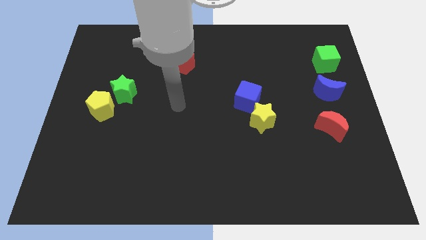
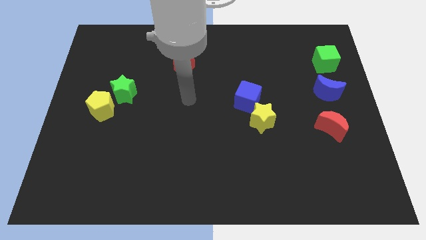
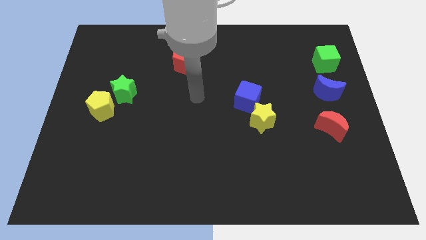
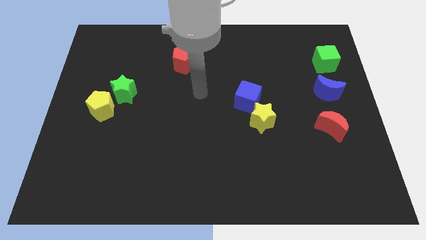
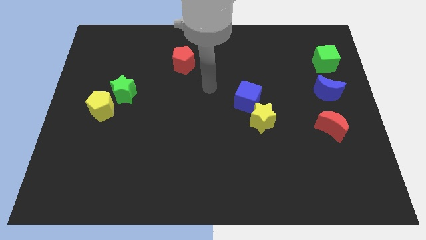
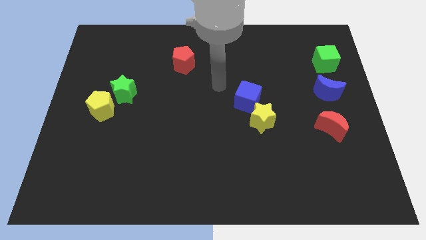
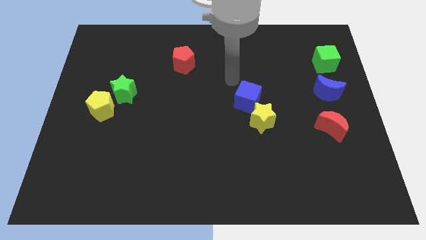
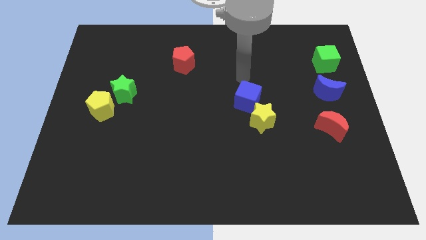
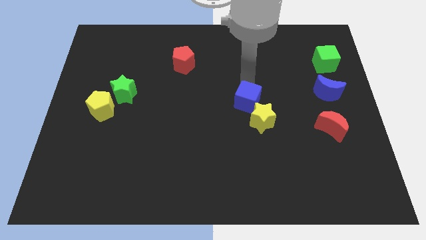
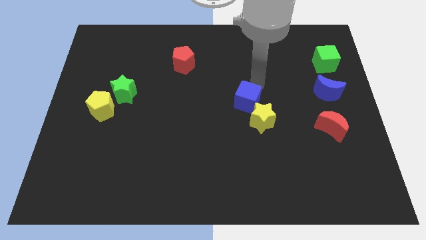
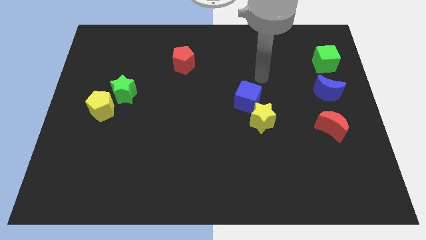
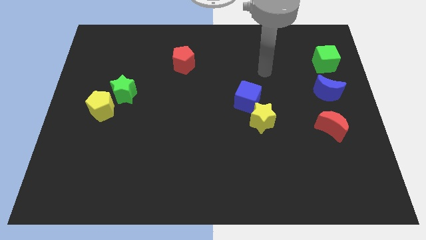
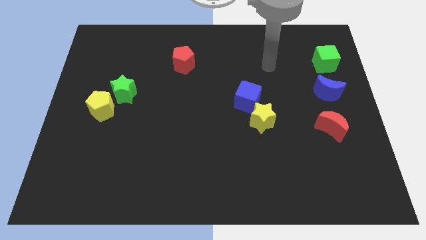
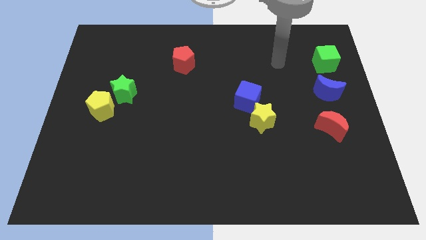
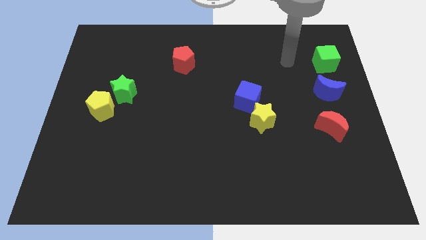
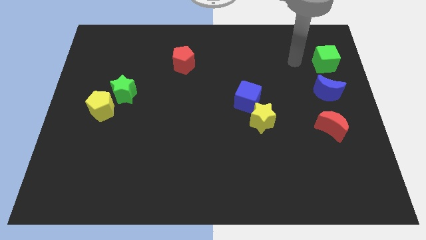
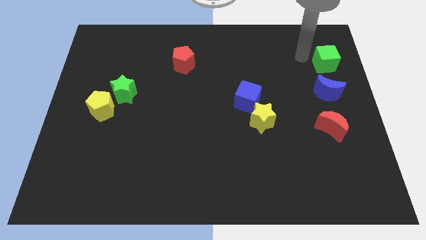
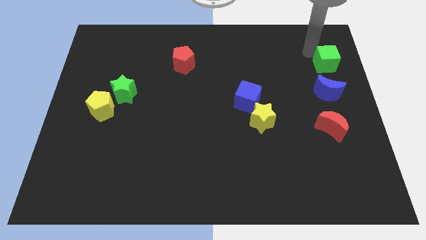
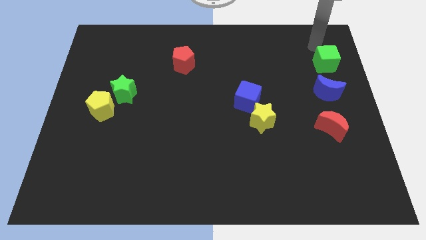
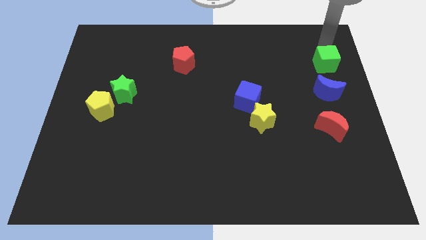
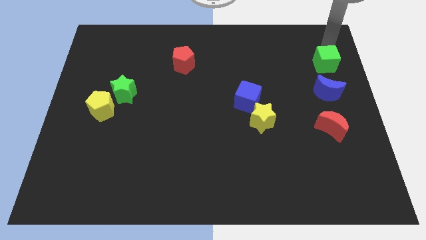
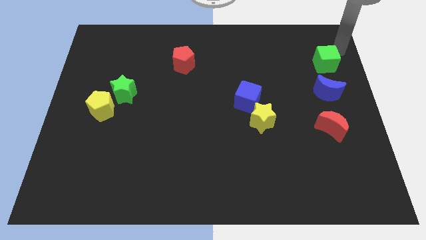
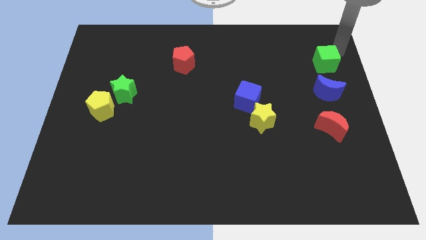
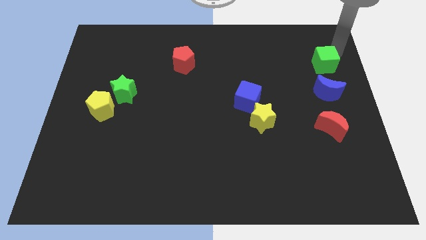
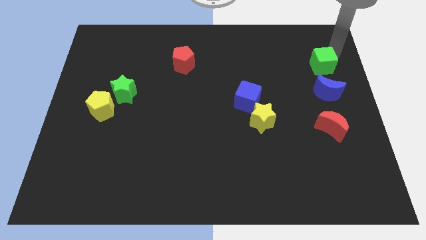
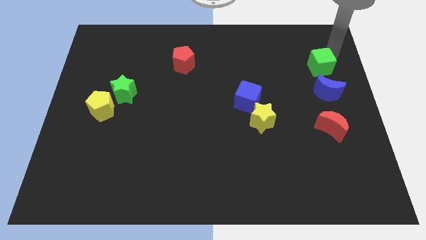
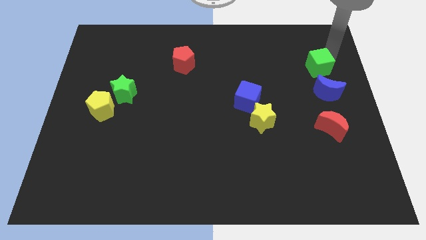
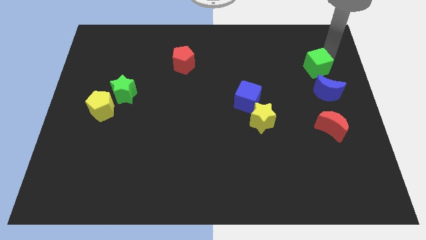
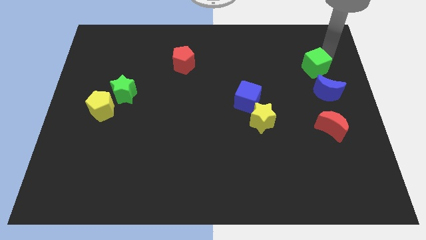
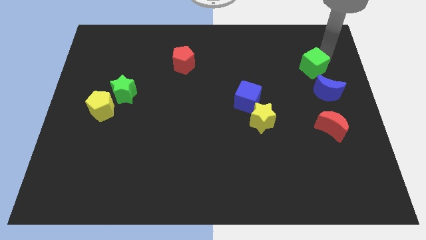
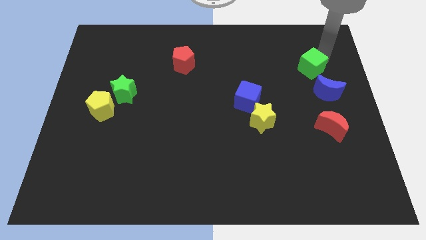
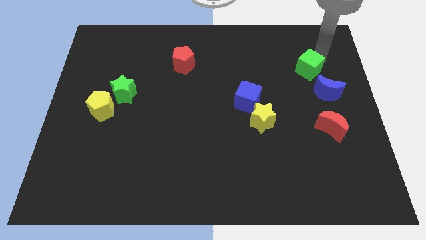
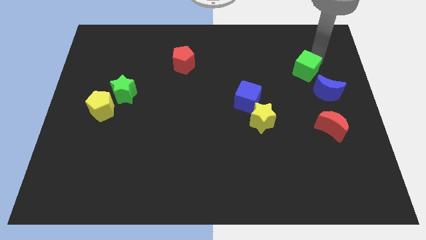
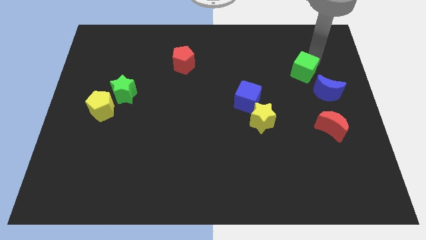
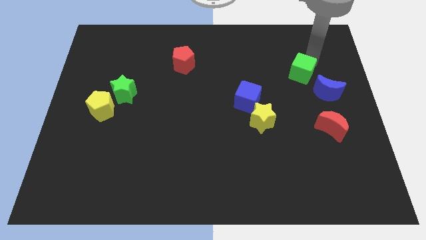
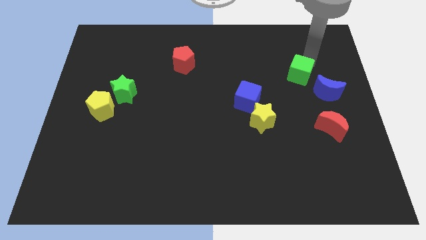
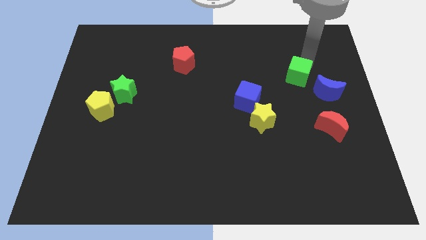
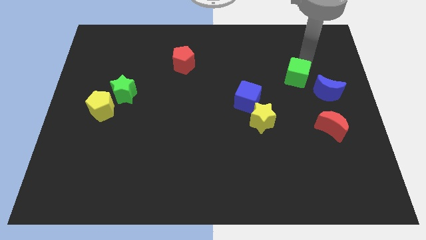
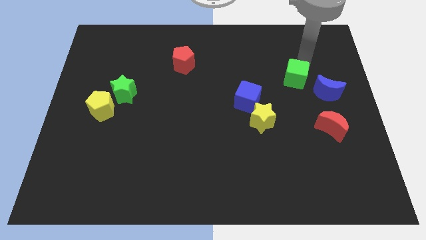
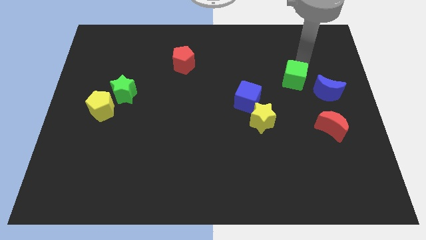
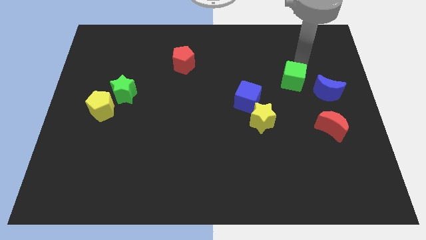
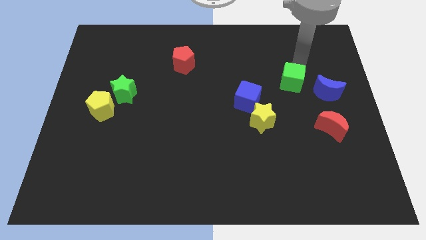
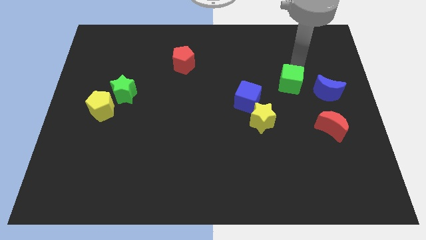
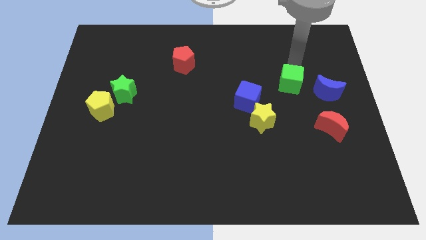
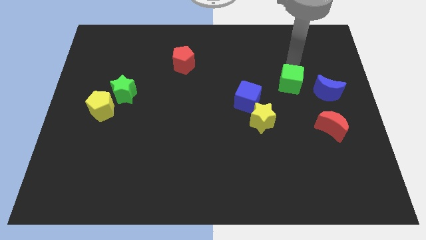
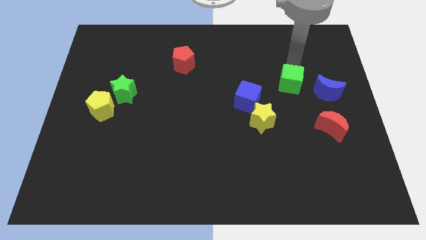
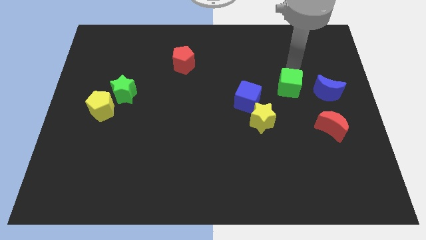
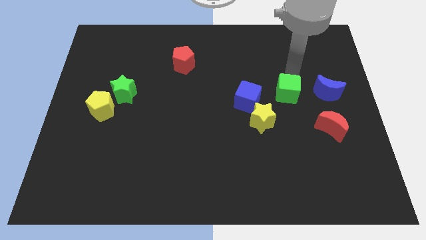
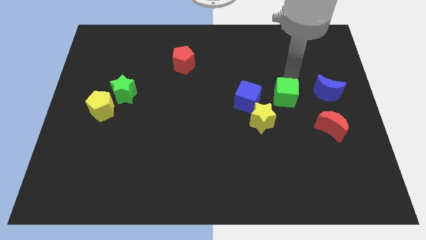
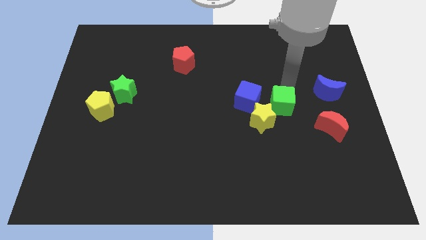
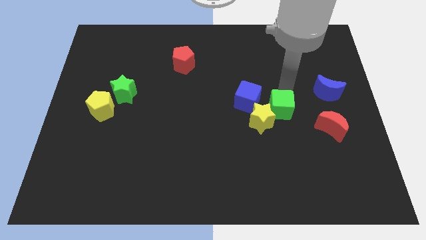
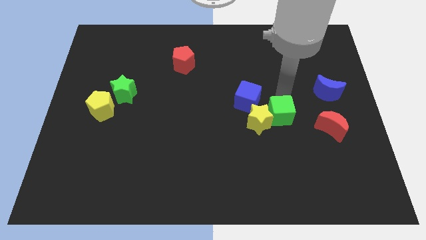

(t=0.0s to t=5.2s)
push the green cube just left of the red moon

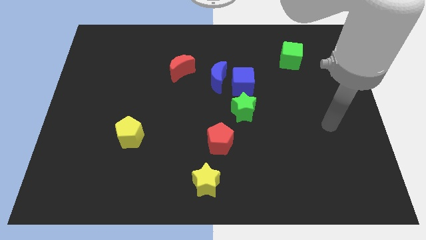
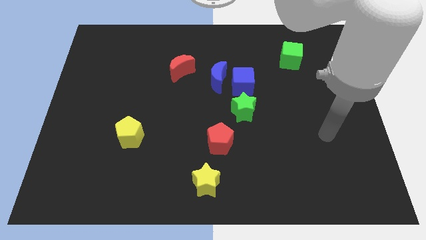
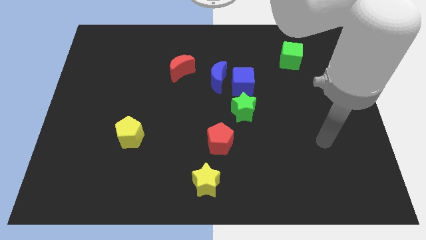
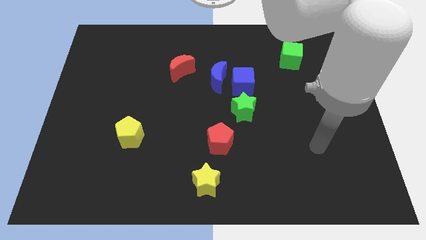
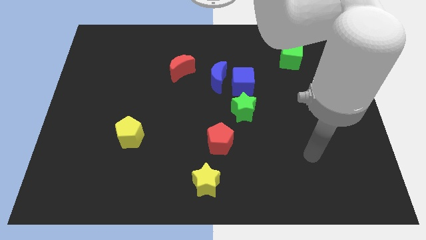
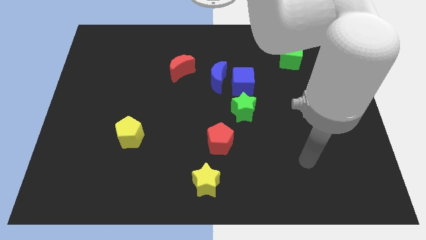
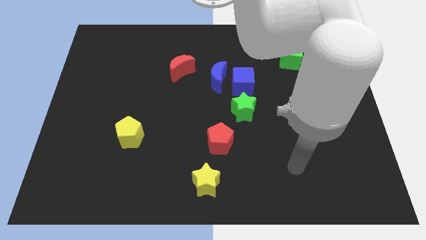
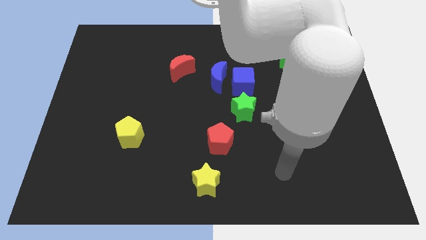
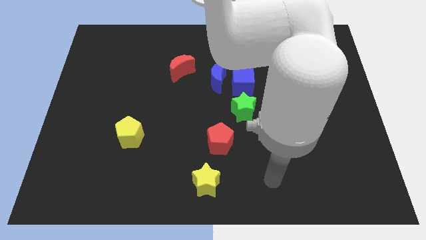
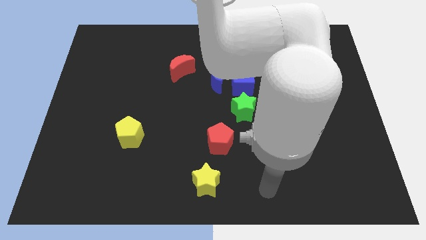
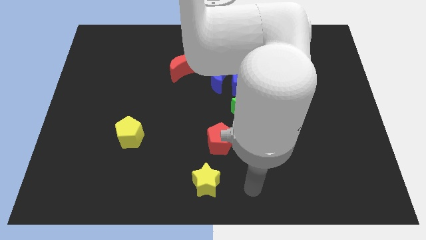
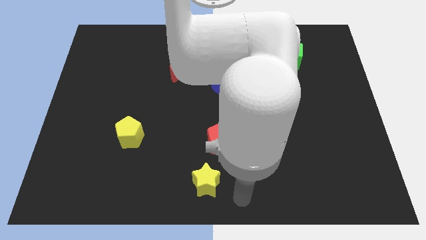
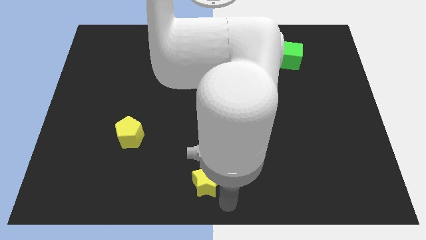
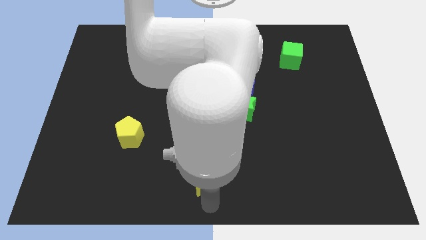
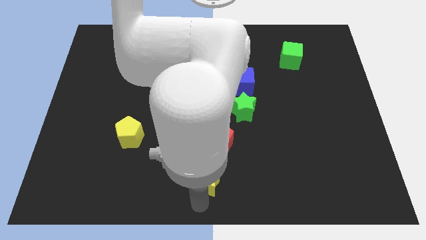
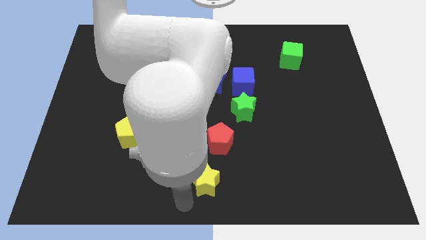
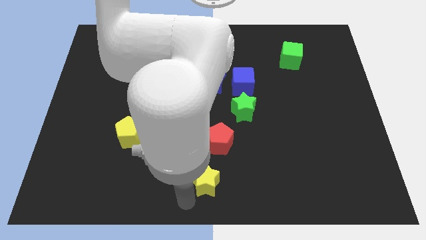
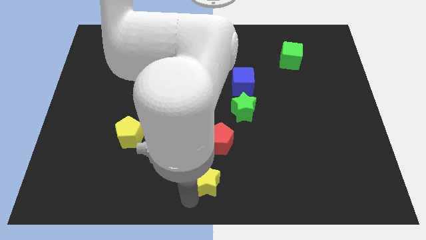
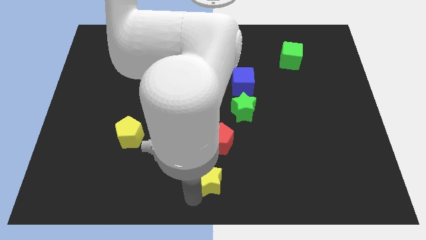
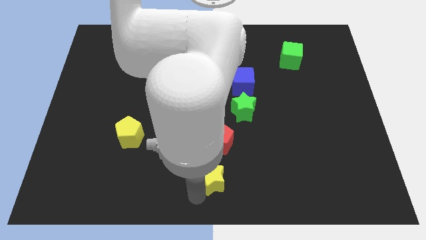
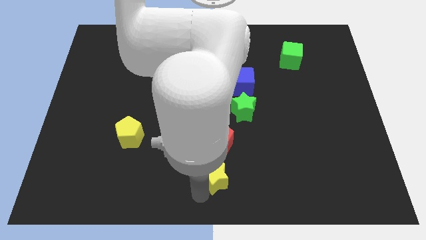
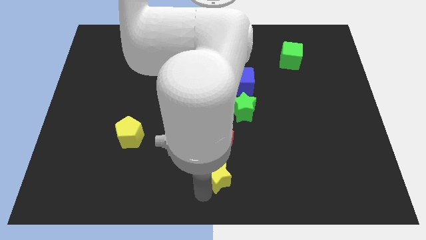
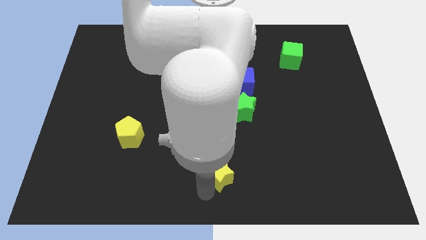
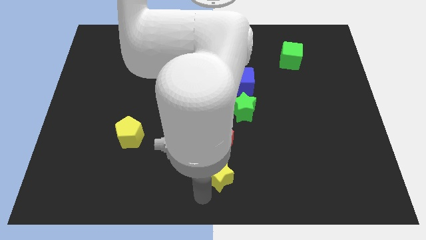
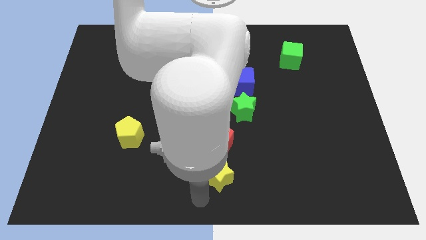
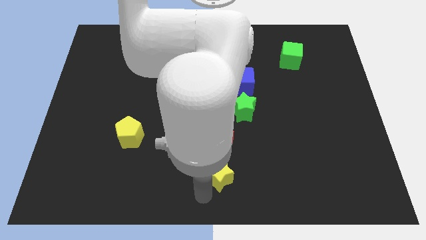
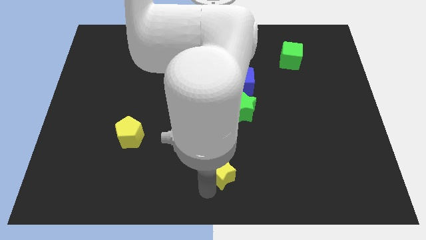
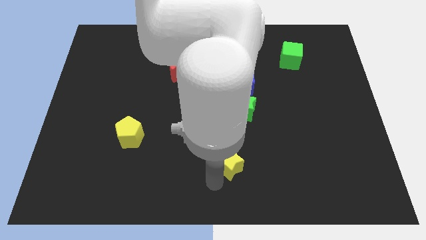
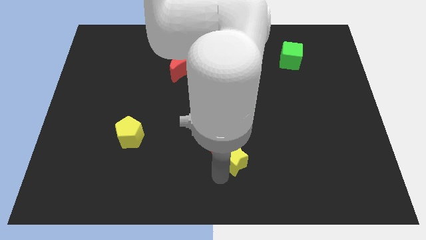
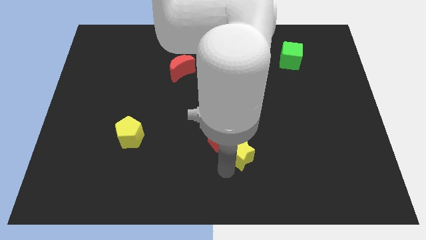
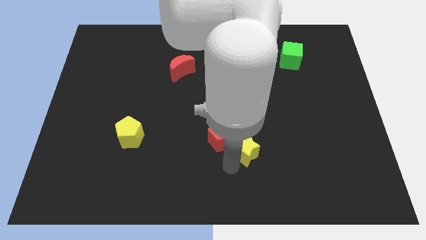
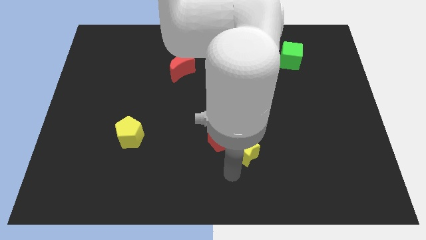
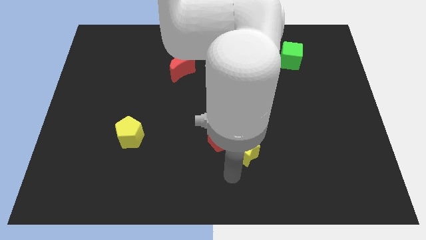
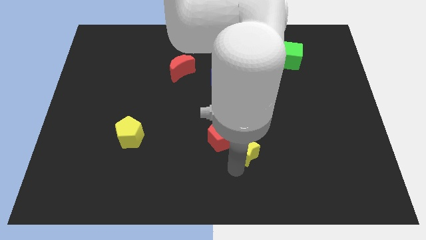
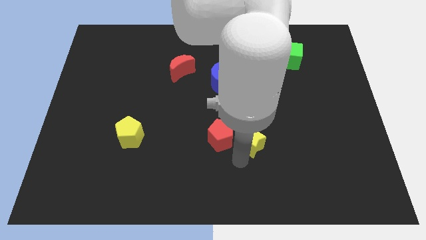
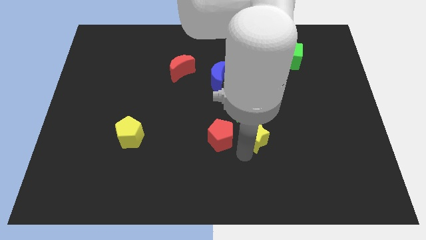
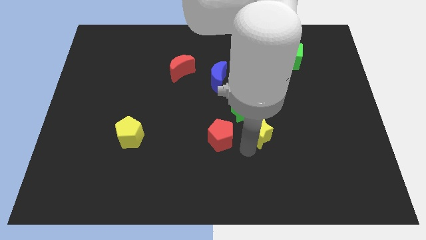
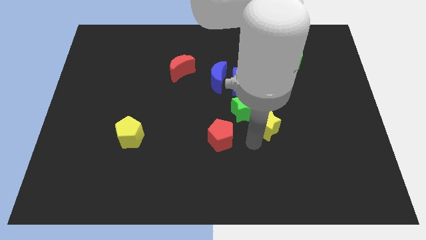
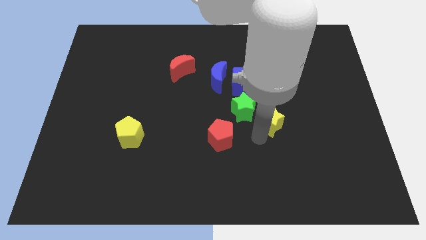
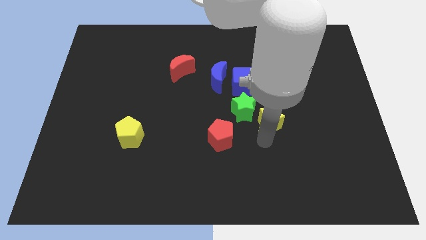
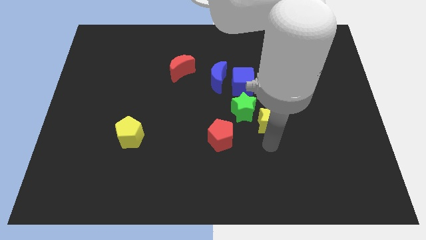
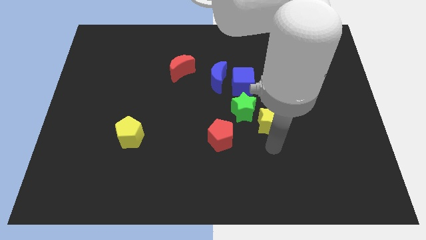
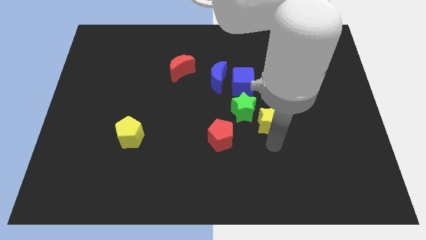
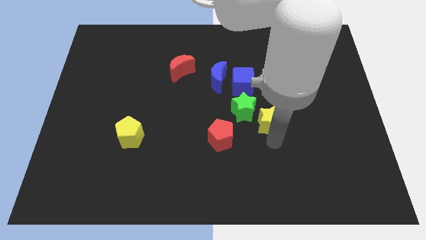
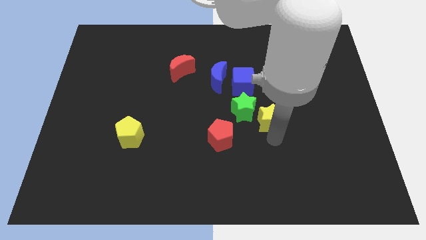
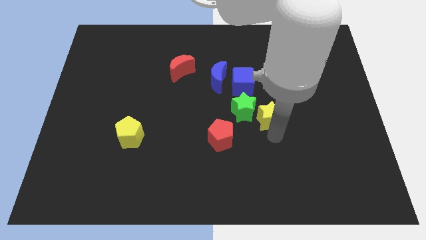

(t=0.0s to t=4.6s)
slide the yellow star to the bottom right of the blue cube
